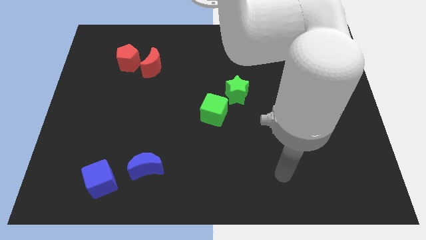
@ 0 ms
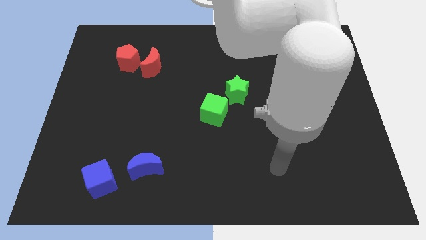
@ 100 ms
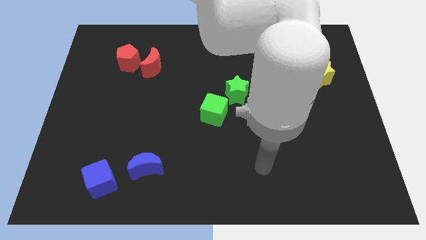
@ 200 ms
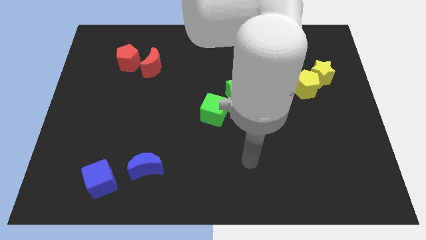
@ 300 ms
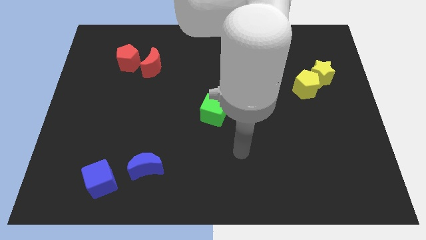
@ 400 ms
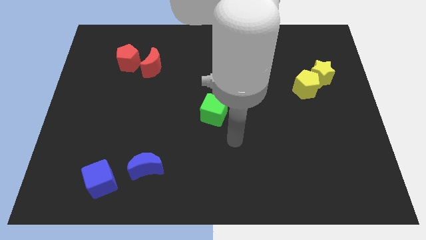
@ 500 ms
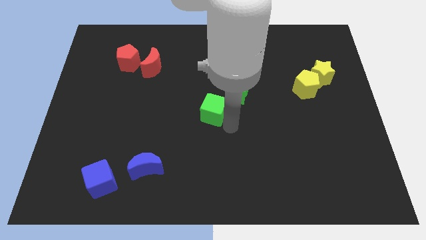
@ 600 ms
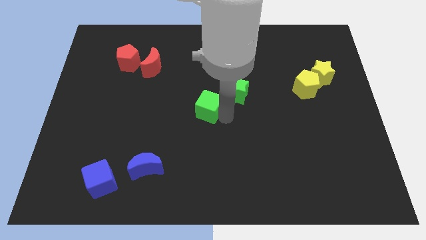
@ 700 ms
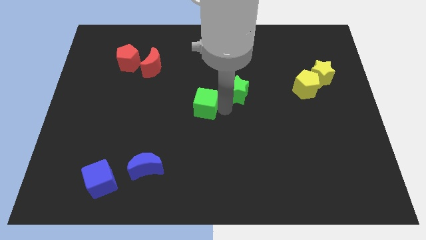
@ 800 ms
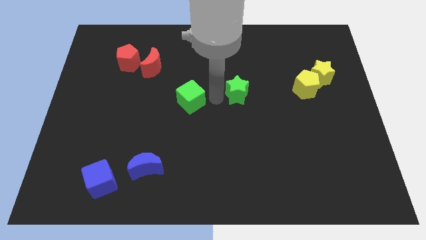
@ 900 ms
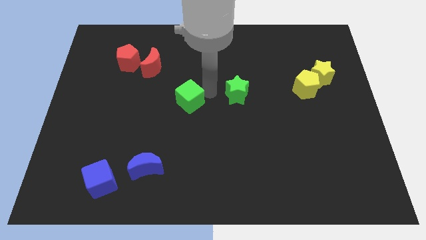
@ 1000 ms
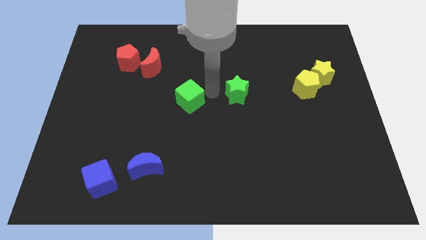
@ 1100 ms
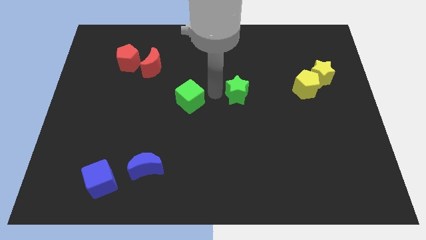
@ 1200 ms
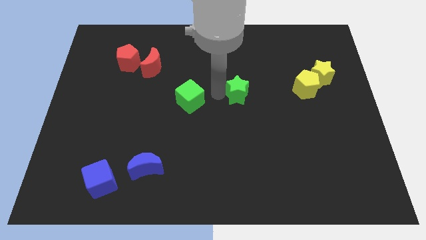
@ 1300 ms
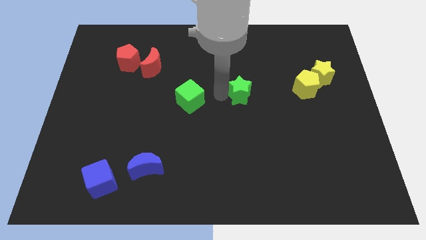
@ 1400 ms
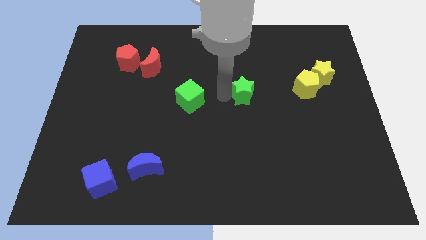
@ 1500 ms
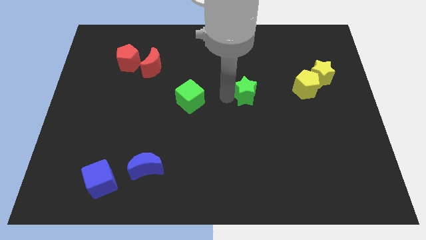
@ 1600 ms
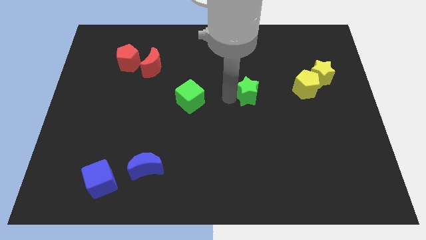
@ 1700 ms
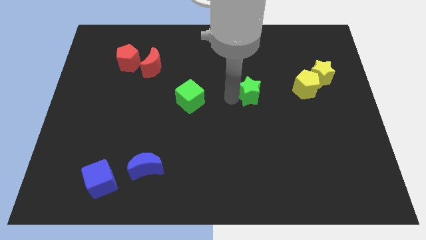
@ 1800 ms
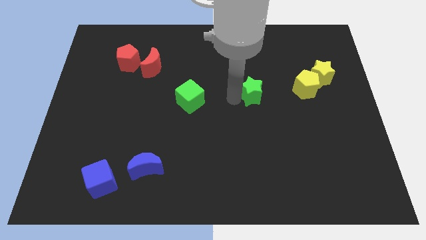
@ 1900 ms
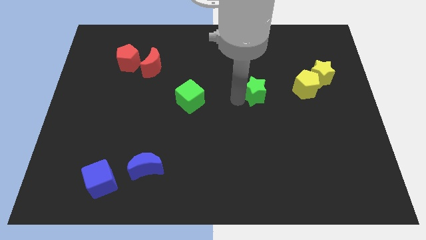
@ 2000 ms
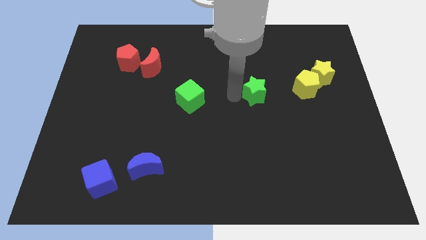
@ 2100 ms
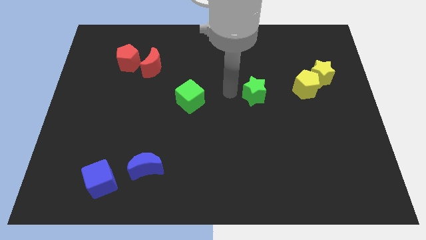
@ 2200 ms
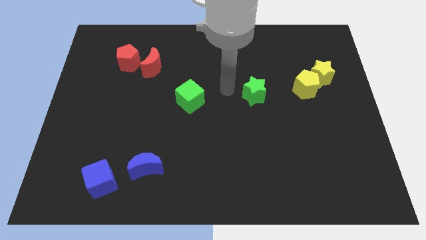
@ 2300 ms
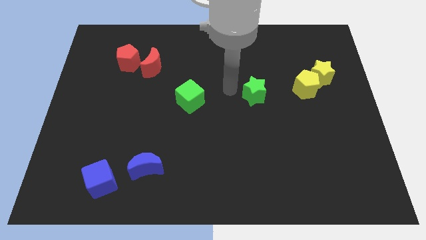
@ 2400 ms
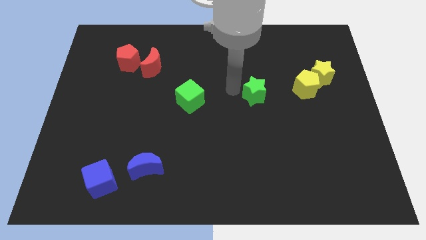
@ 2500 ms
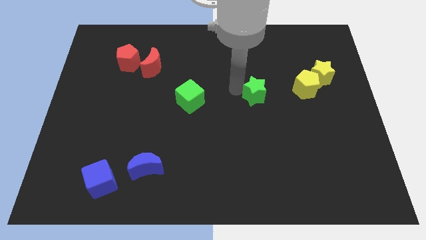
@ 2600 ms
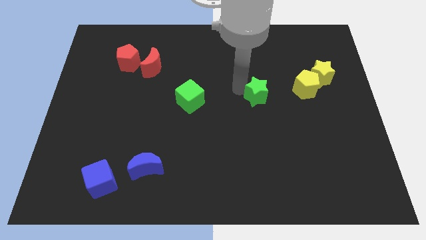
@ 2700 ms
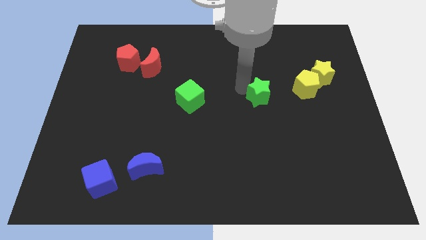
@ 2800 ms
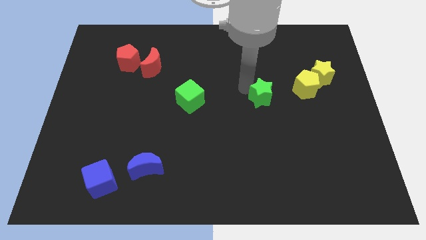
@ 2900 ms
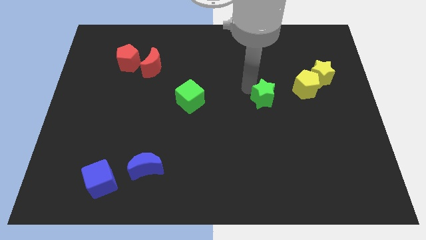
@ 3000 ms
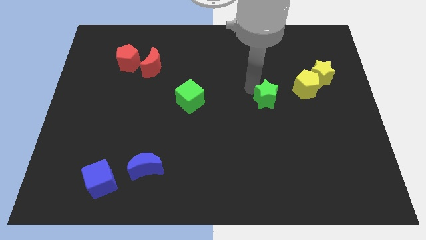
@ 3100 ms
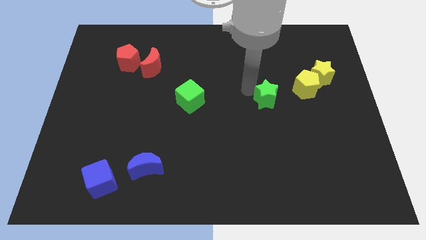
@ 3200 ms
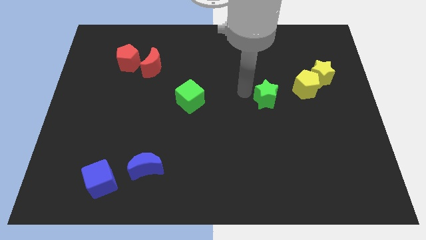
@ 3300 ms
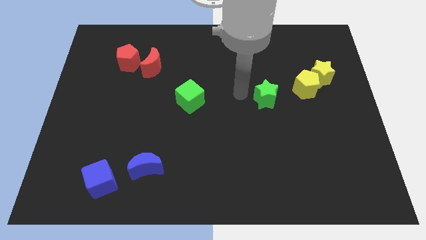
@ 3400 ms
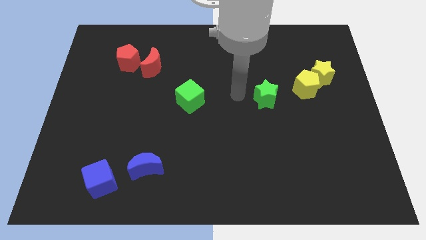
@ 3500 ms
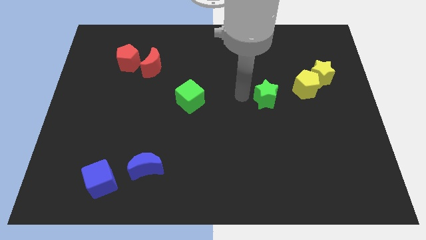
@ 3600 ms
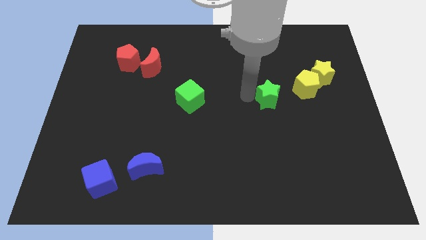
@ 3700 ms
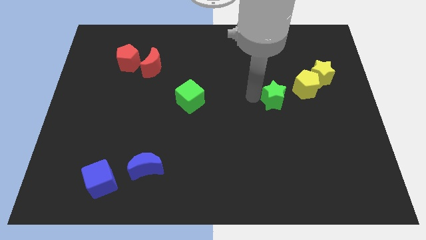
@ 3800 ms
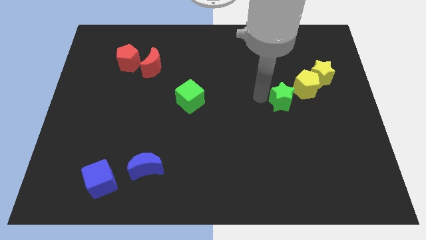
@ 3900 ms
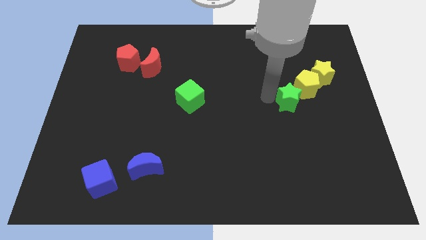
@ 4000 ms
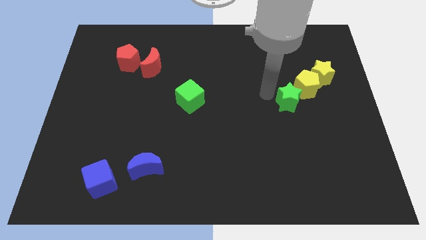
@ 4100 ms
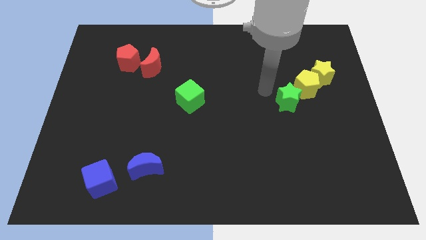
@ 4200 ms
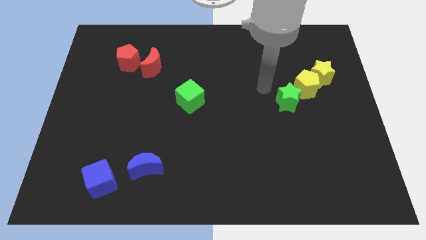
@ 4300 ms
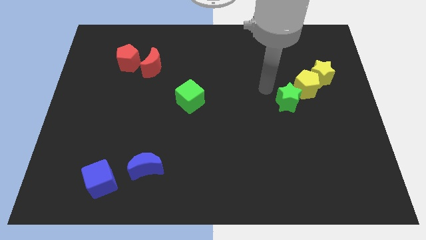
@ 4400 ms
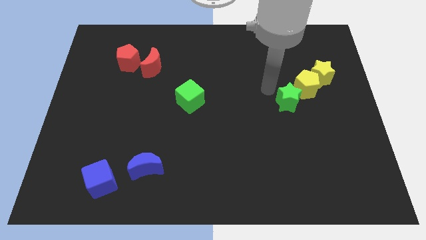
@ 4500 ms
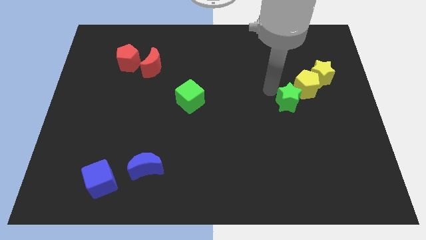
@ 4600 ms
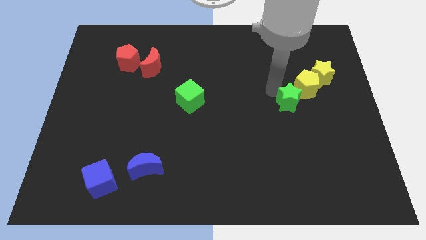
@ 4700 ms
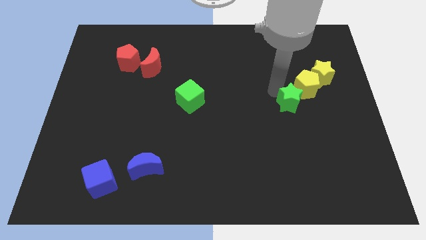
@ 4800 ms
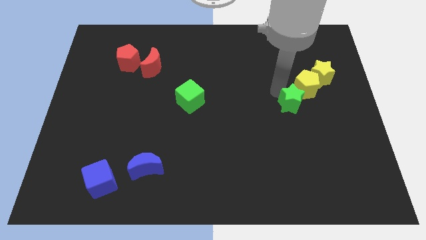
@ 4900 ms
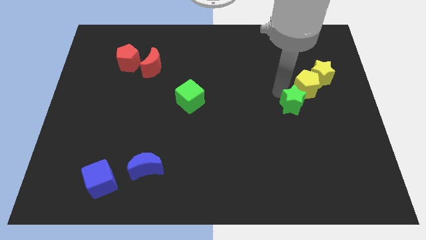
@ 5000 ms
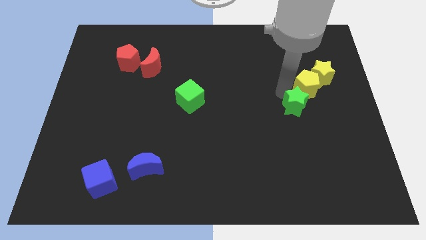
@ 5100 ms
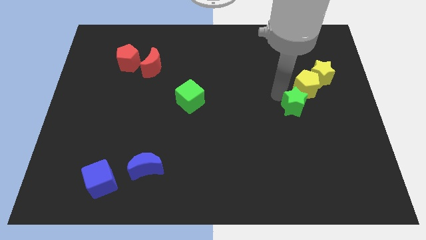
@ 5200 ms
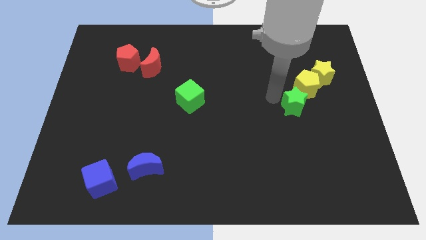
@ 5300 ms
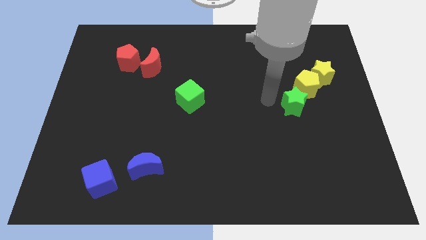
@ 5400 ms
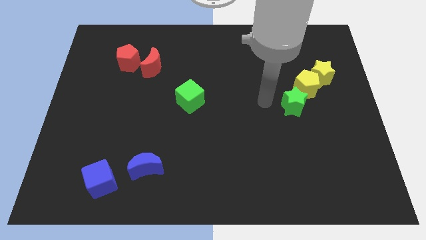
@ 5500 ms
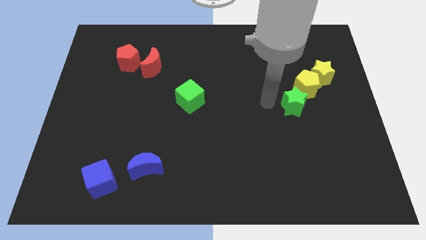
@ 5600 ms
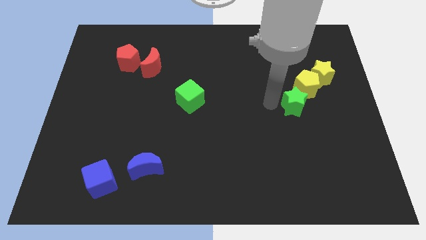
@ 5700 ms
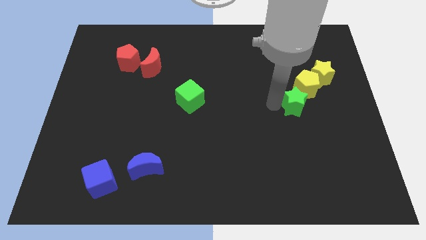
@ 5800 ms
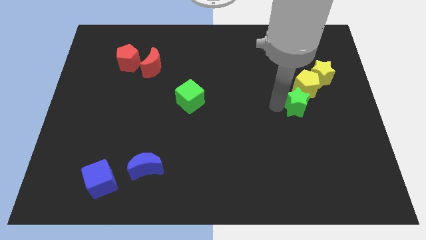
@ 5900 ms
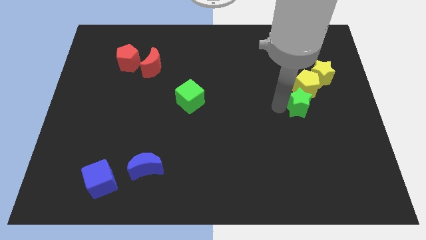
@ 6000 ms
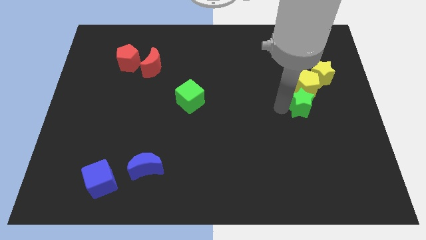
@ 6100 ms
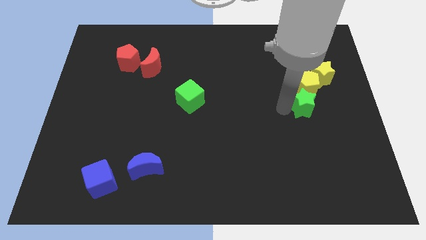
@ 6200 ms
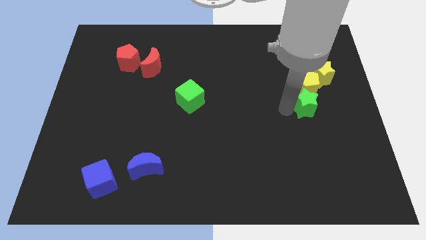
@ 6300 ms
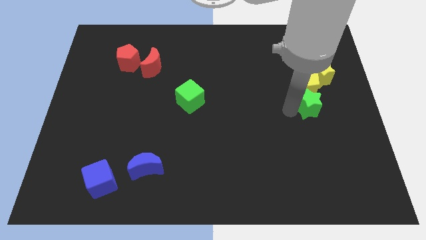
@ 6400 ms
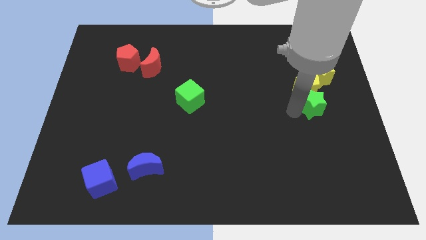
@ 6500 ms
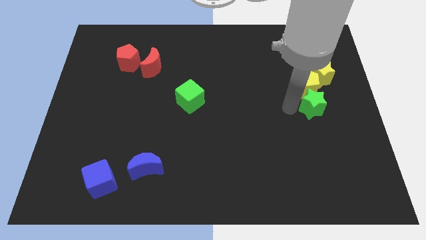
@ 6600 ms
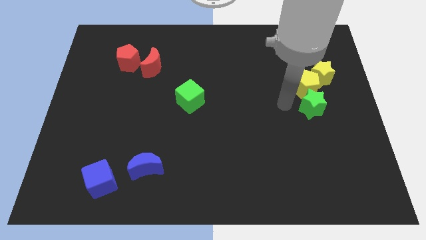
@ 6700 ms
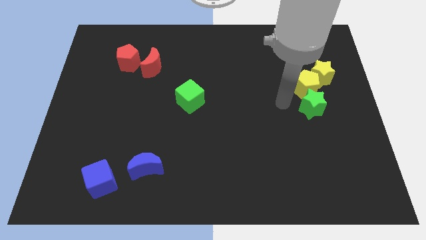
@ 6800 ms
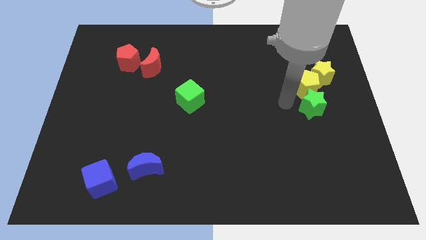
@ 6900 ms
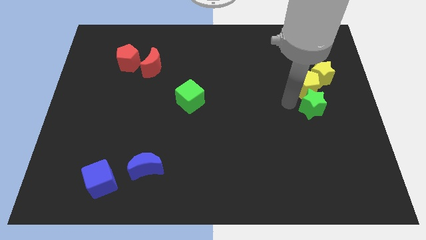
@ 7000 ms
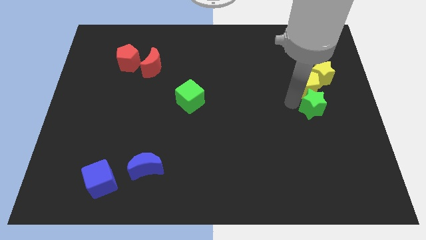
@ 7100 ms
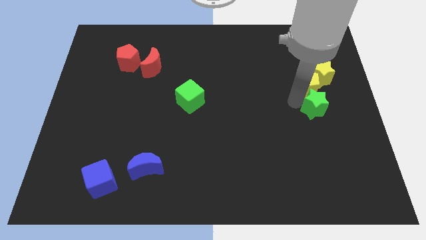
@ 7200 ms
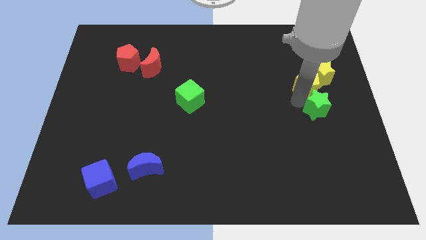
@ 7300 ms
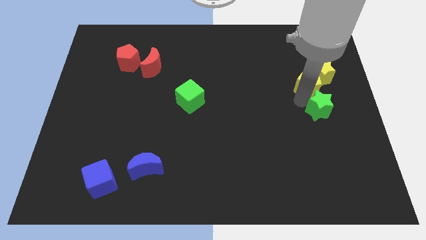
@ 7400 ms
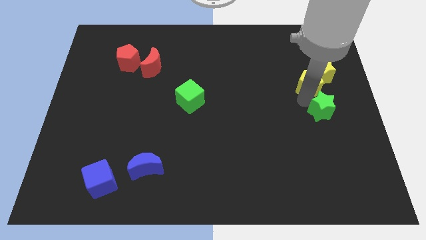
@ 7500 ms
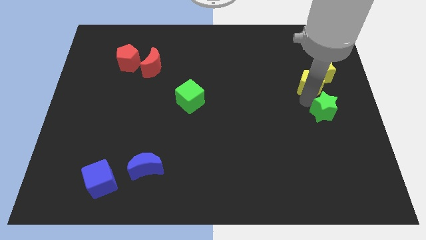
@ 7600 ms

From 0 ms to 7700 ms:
push the green star to the center right
